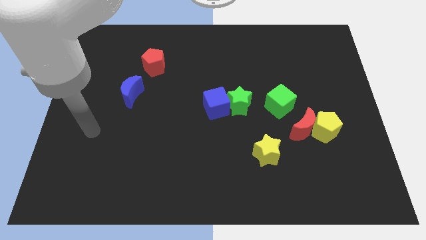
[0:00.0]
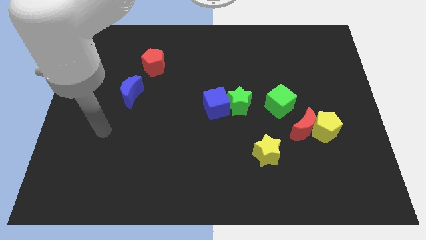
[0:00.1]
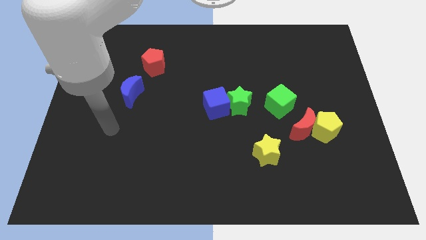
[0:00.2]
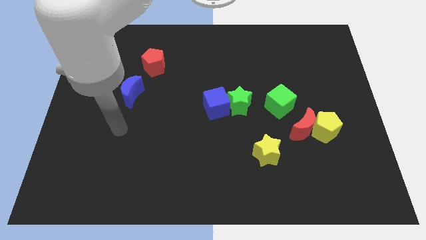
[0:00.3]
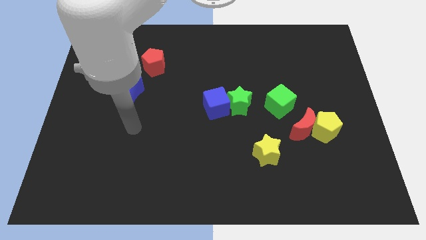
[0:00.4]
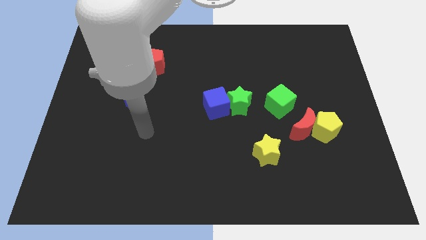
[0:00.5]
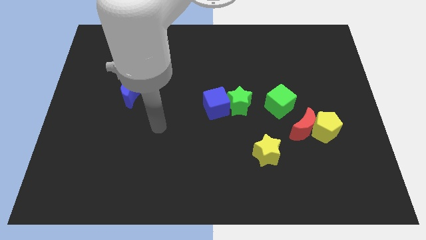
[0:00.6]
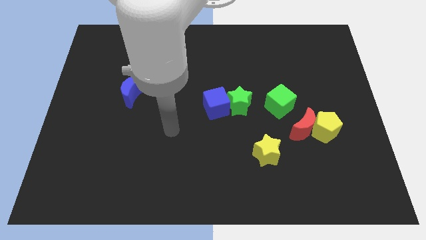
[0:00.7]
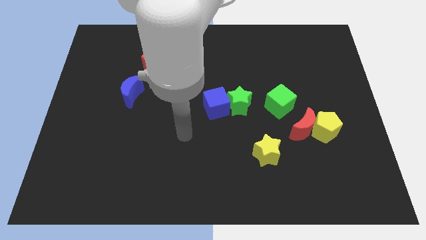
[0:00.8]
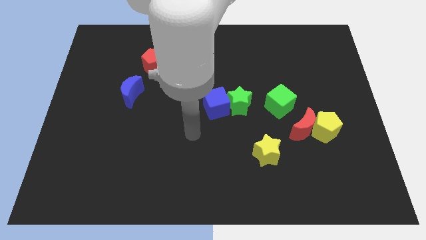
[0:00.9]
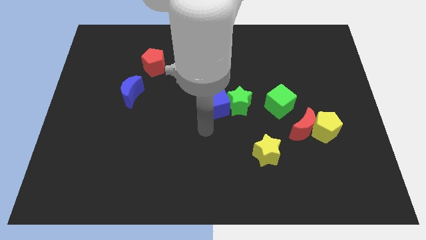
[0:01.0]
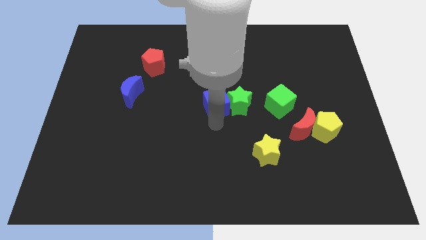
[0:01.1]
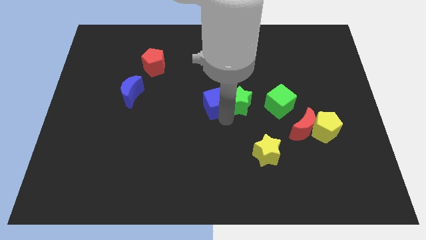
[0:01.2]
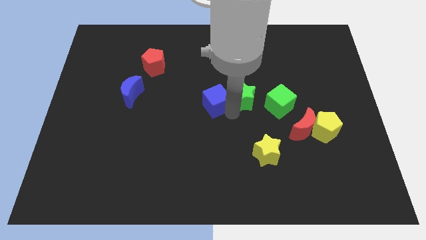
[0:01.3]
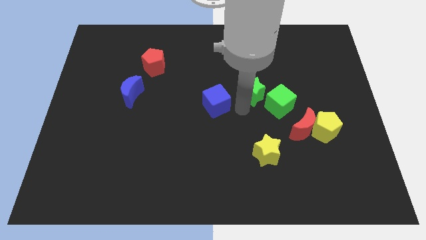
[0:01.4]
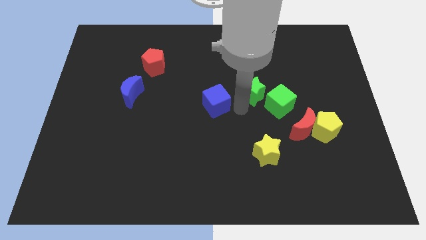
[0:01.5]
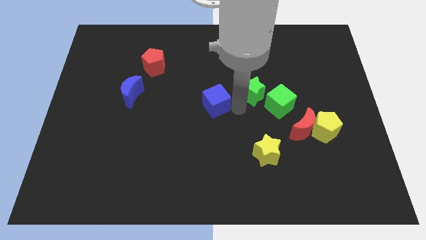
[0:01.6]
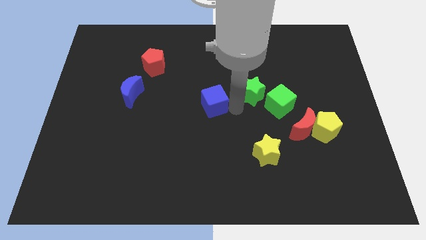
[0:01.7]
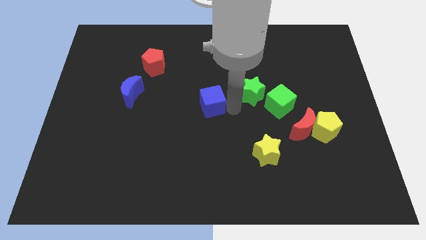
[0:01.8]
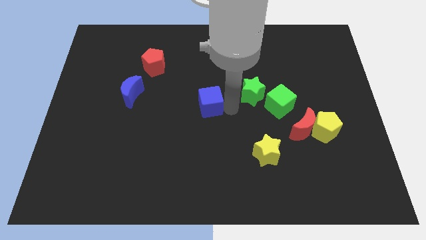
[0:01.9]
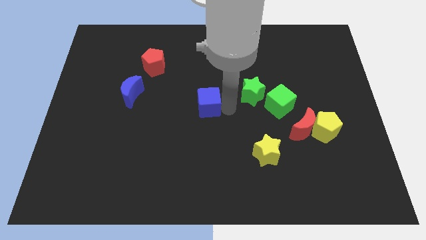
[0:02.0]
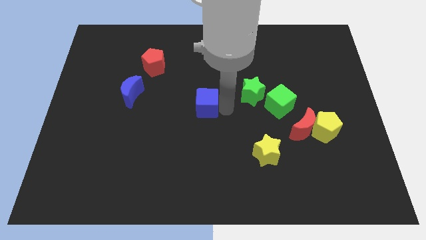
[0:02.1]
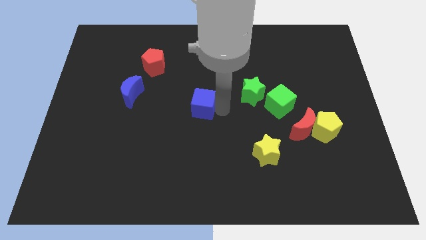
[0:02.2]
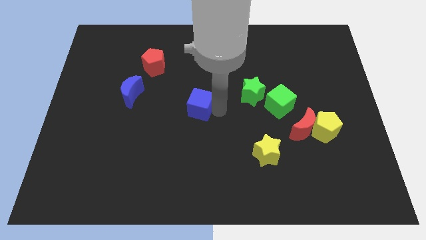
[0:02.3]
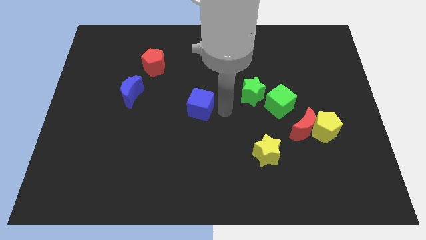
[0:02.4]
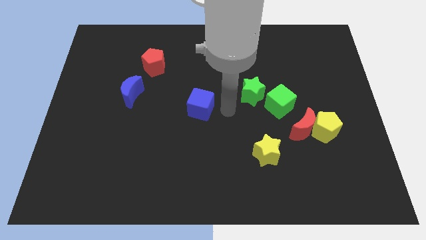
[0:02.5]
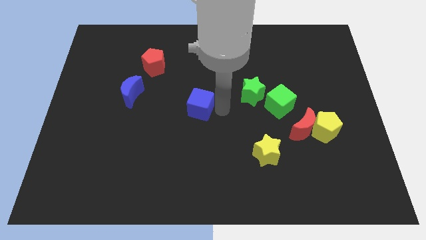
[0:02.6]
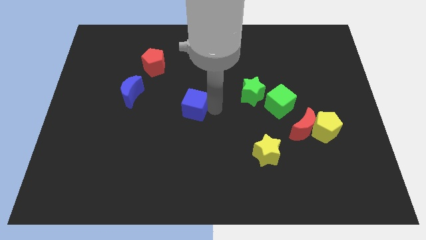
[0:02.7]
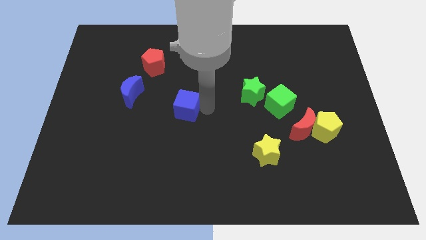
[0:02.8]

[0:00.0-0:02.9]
slightly move the blue cube left

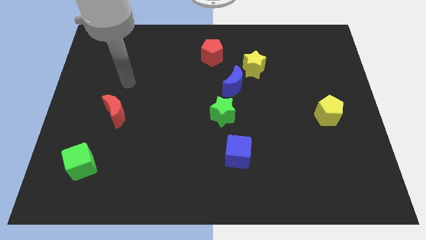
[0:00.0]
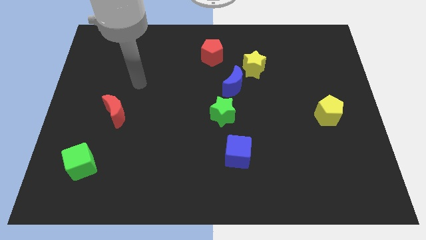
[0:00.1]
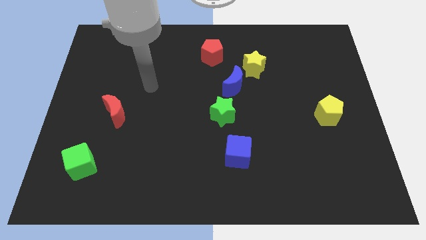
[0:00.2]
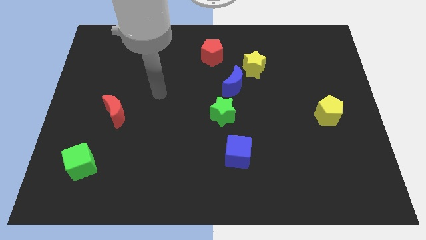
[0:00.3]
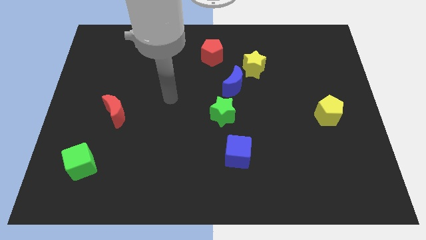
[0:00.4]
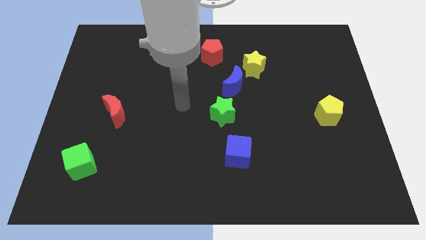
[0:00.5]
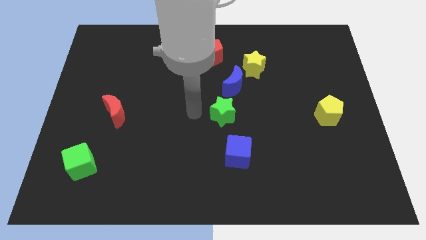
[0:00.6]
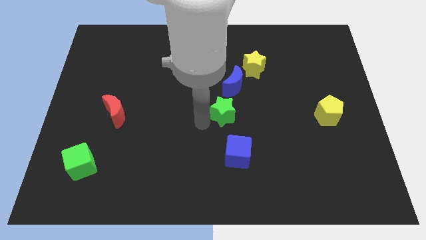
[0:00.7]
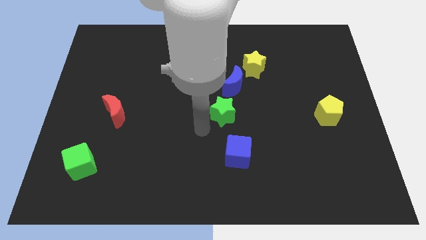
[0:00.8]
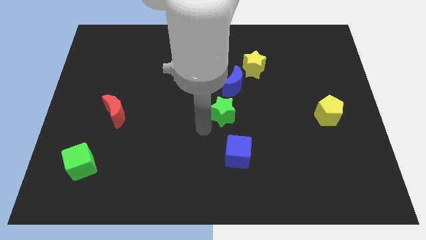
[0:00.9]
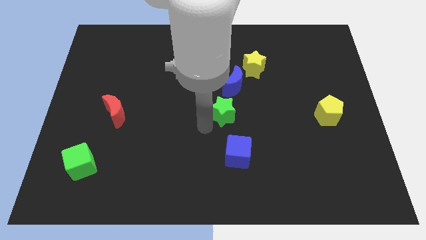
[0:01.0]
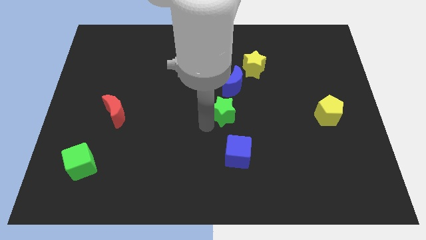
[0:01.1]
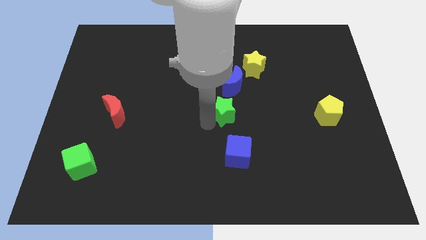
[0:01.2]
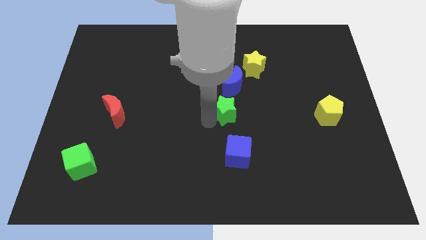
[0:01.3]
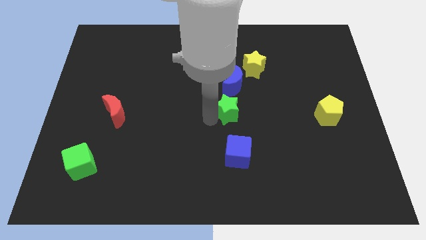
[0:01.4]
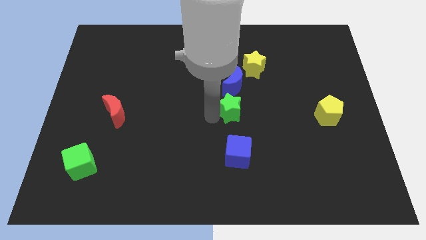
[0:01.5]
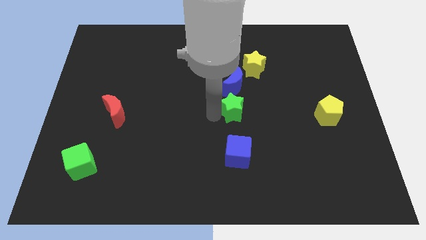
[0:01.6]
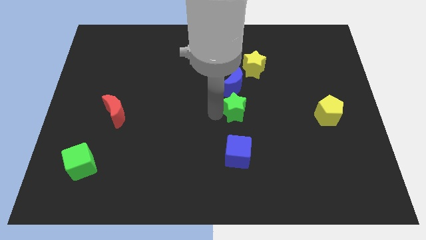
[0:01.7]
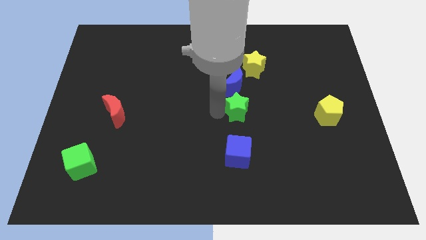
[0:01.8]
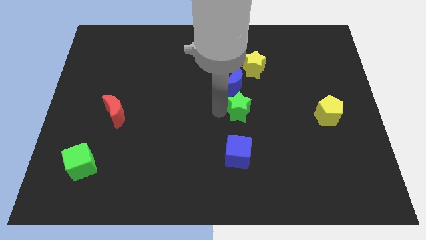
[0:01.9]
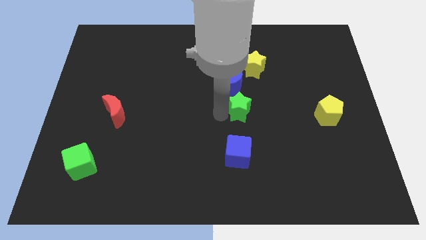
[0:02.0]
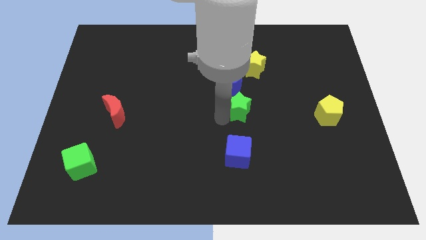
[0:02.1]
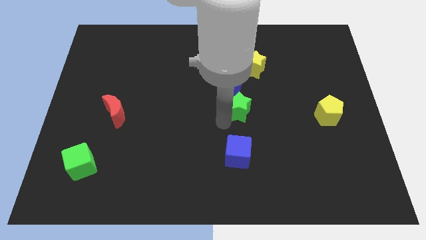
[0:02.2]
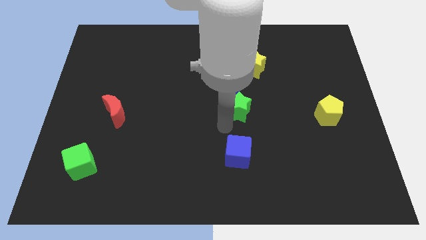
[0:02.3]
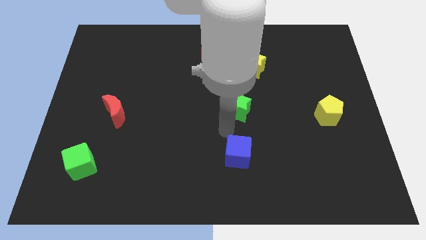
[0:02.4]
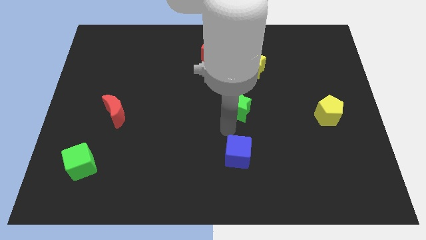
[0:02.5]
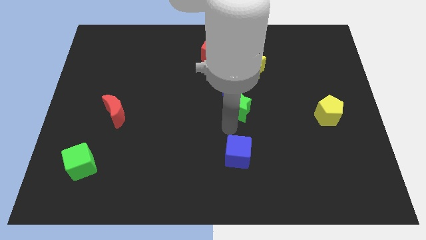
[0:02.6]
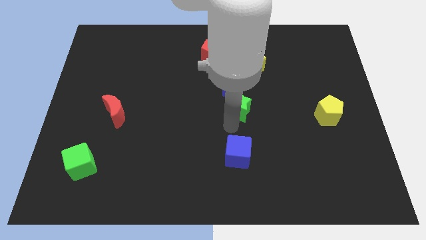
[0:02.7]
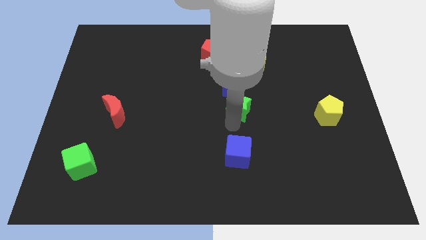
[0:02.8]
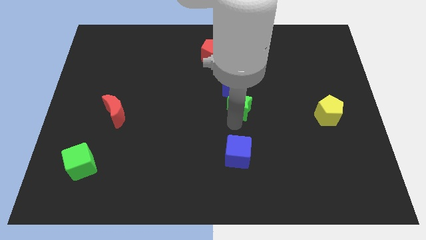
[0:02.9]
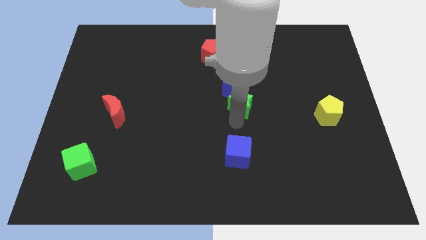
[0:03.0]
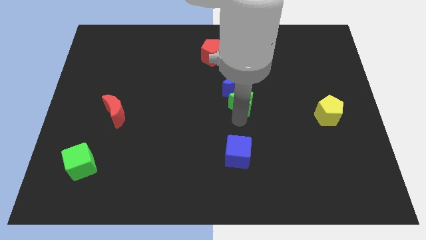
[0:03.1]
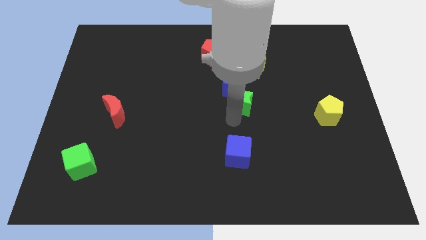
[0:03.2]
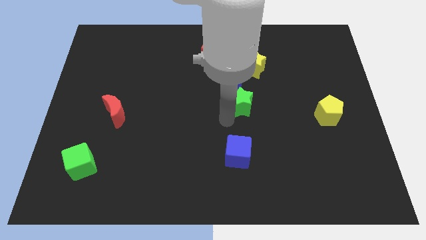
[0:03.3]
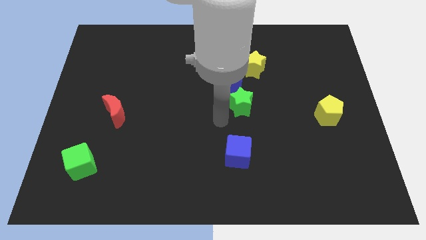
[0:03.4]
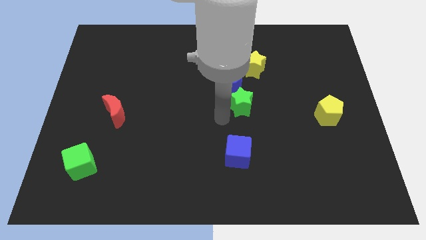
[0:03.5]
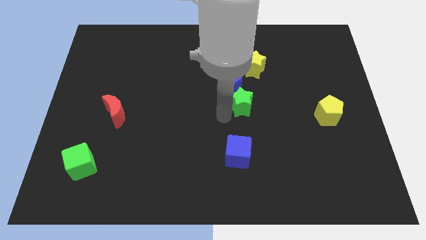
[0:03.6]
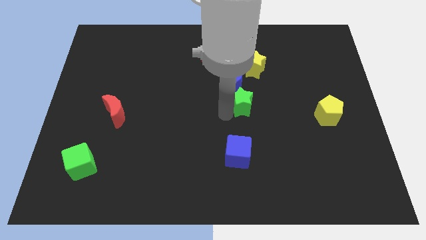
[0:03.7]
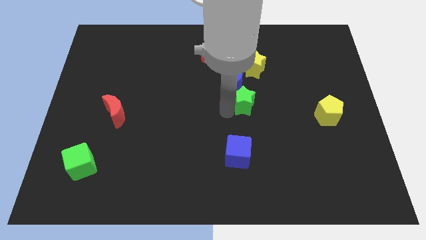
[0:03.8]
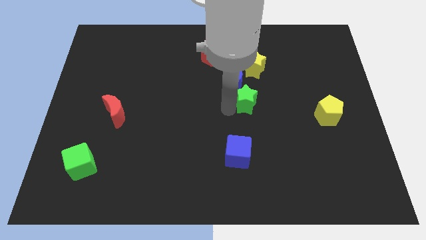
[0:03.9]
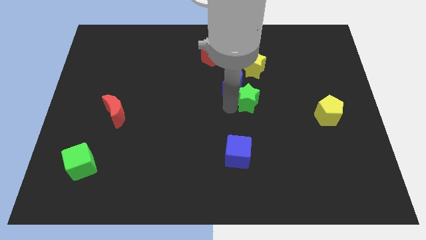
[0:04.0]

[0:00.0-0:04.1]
slightly push the green star up and then to the right

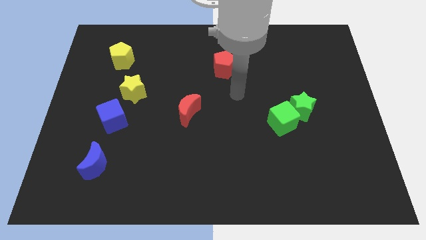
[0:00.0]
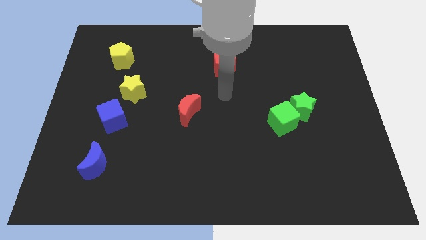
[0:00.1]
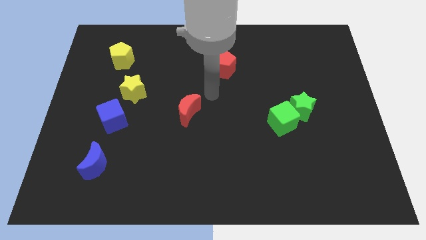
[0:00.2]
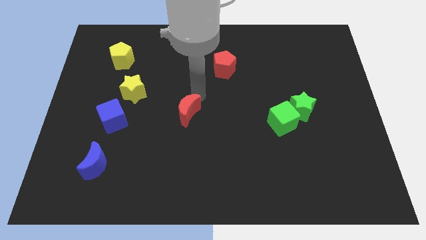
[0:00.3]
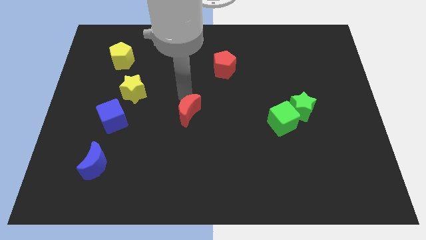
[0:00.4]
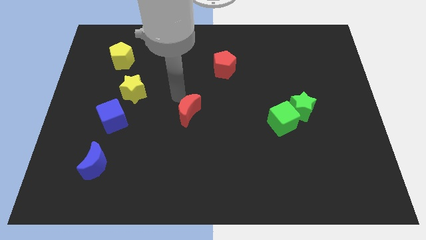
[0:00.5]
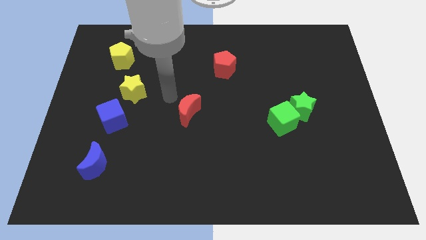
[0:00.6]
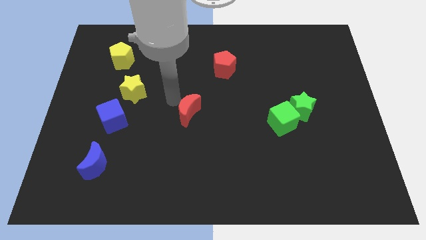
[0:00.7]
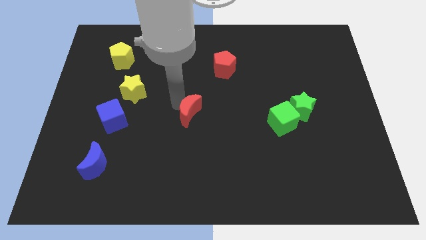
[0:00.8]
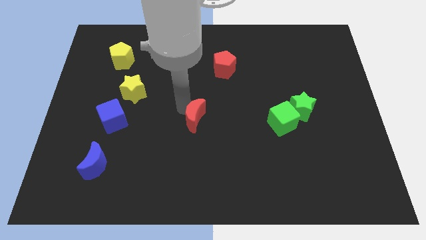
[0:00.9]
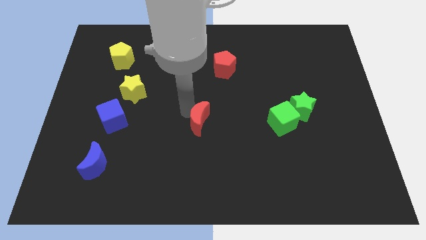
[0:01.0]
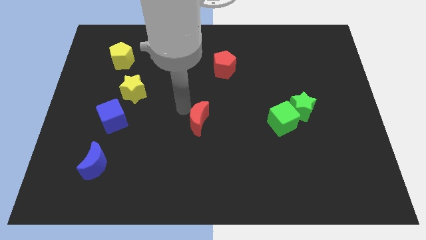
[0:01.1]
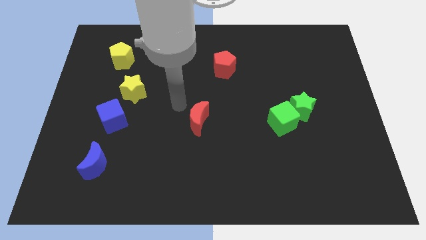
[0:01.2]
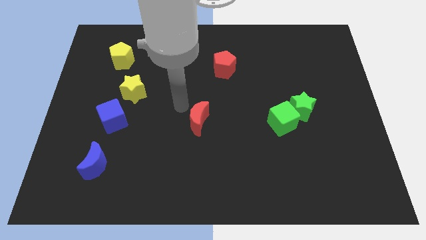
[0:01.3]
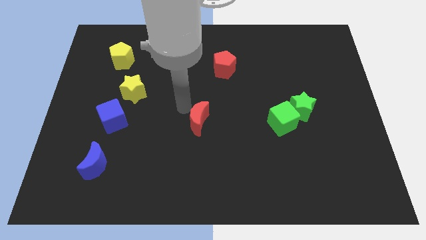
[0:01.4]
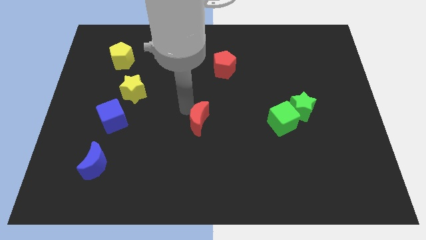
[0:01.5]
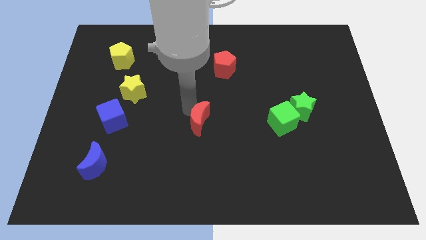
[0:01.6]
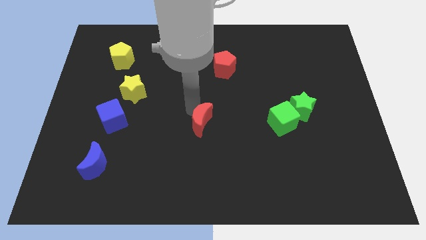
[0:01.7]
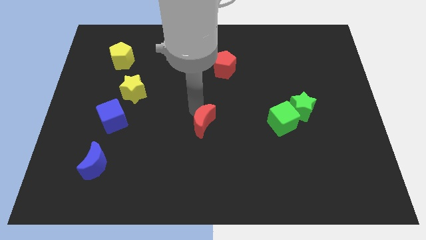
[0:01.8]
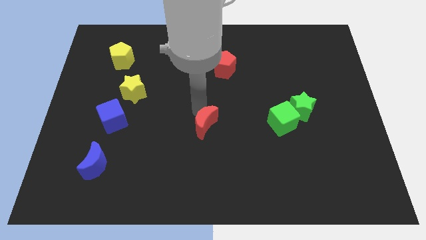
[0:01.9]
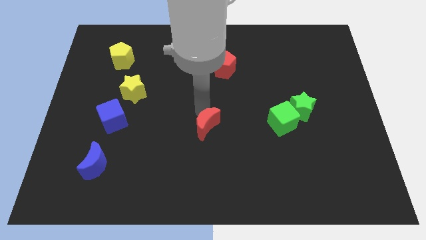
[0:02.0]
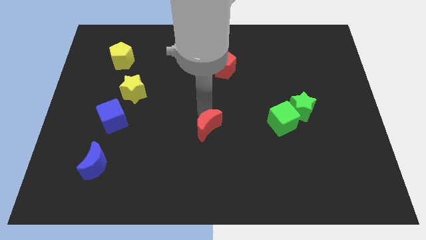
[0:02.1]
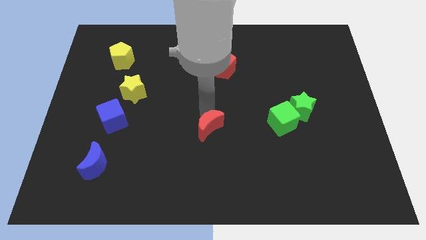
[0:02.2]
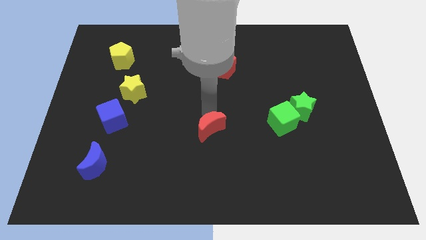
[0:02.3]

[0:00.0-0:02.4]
slightly move the red moon diagonally downwards and to the right
